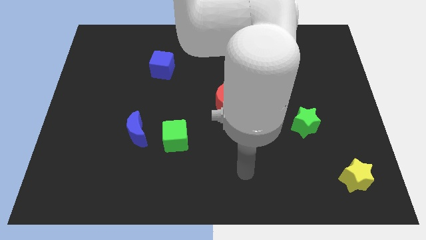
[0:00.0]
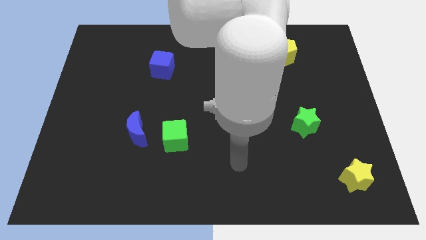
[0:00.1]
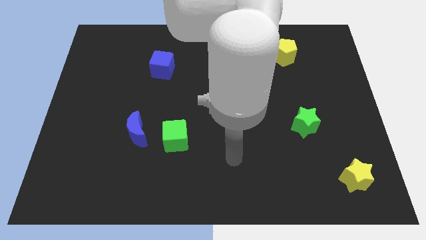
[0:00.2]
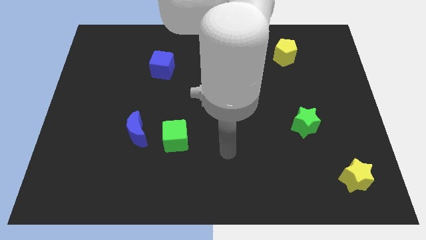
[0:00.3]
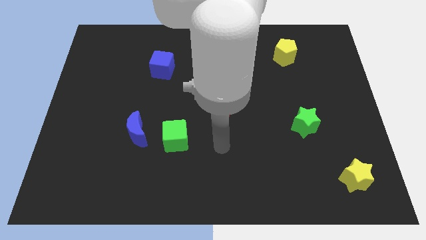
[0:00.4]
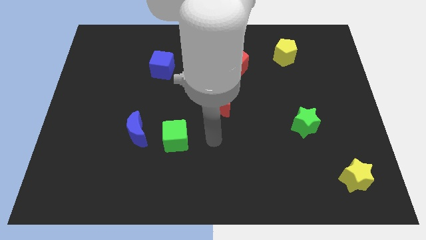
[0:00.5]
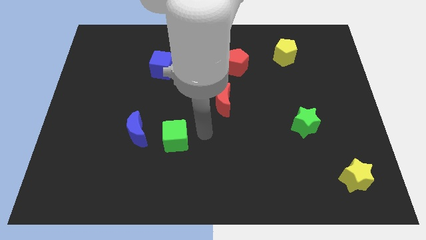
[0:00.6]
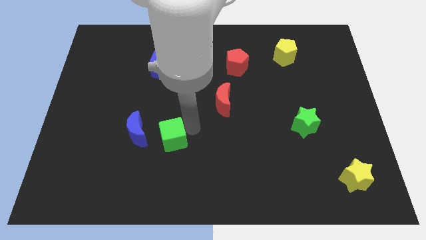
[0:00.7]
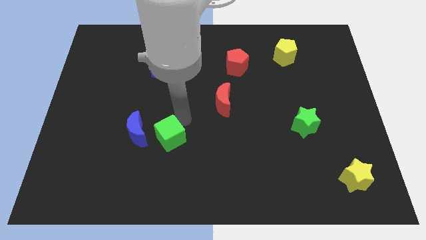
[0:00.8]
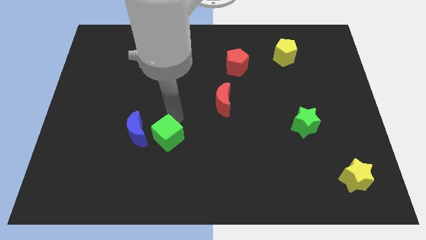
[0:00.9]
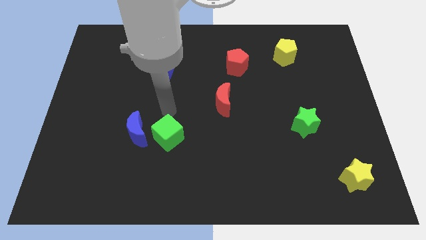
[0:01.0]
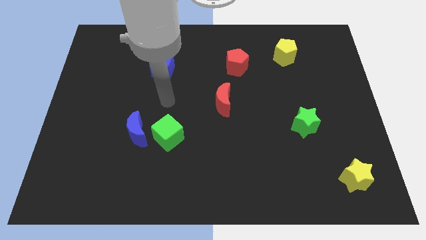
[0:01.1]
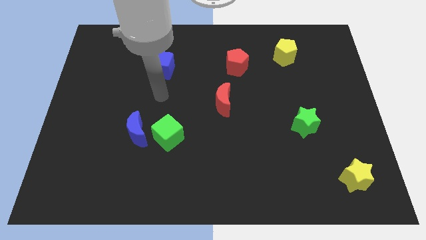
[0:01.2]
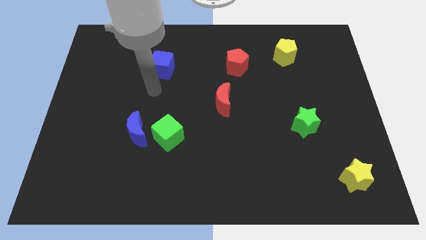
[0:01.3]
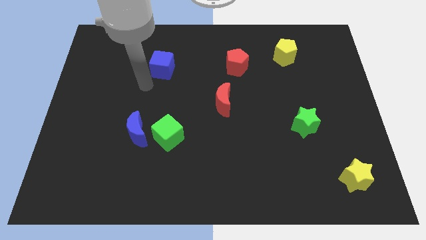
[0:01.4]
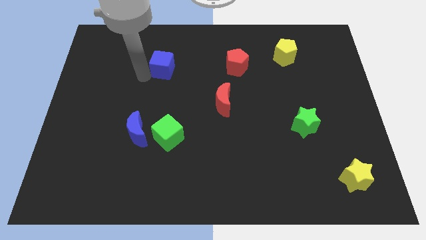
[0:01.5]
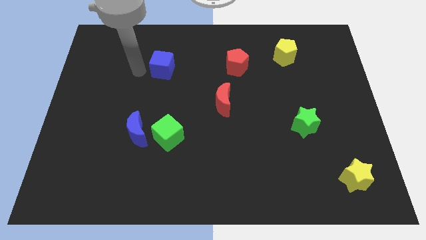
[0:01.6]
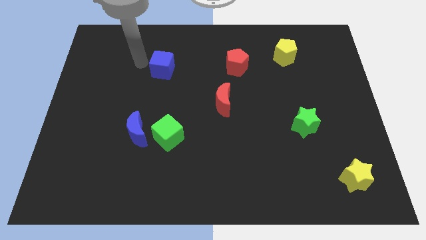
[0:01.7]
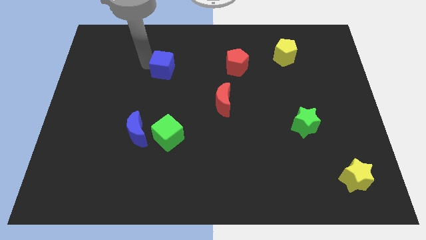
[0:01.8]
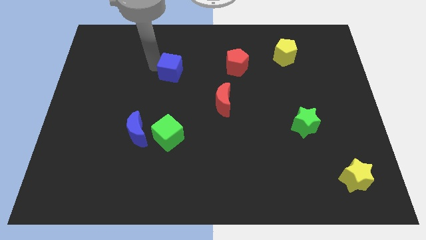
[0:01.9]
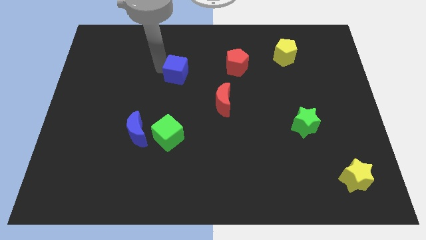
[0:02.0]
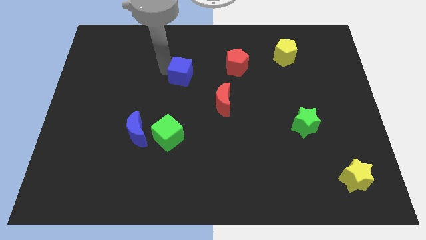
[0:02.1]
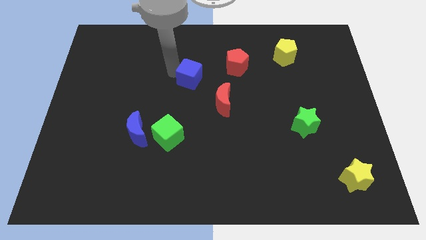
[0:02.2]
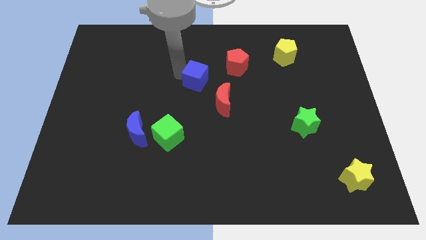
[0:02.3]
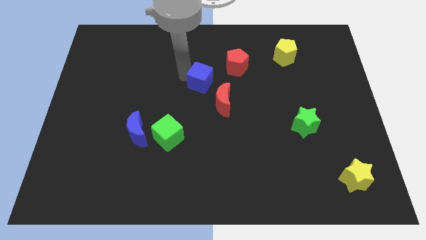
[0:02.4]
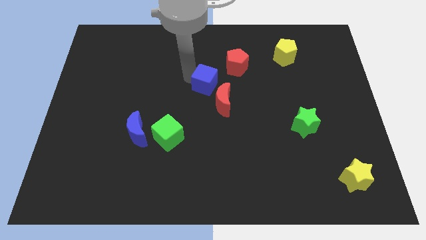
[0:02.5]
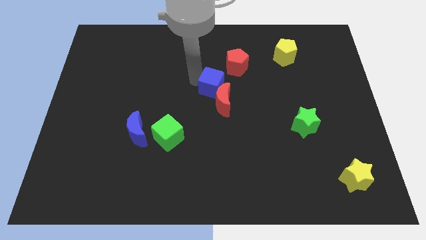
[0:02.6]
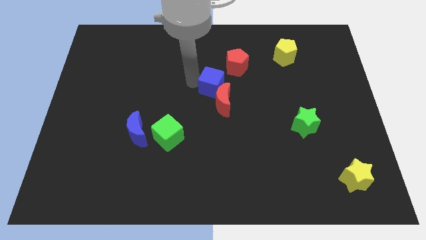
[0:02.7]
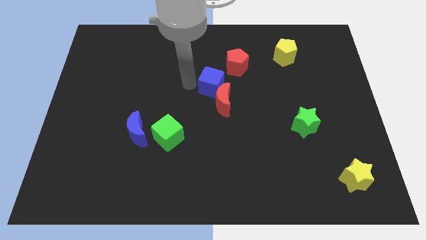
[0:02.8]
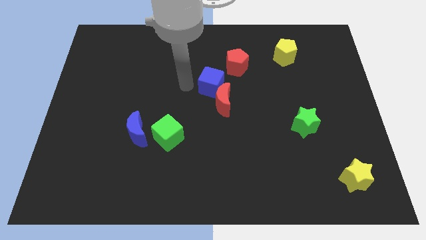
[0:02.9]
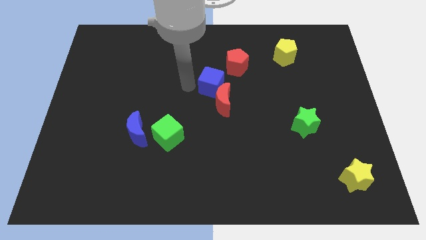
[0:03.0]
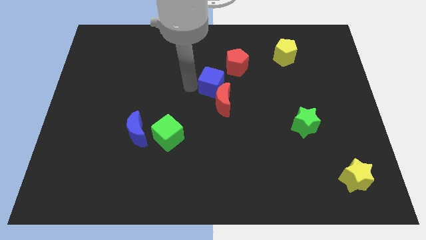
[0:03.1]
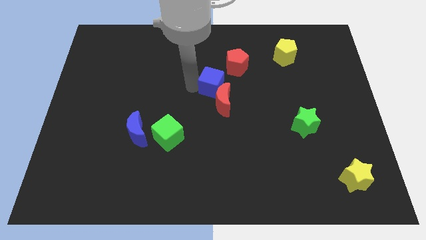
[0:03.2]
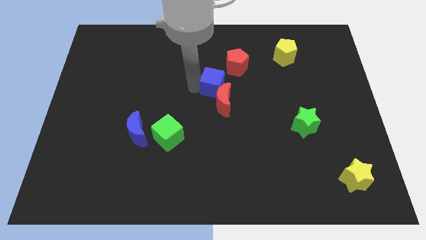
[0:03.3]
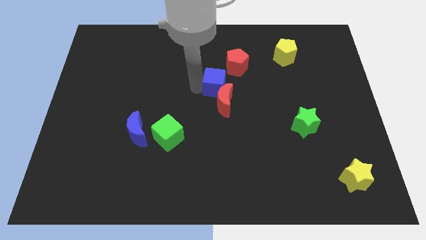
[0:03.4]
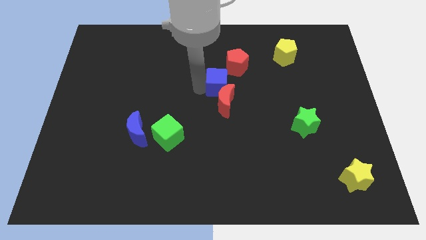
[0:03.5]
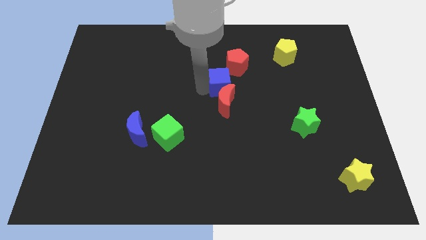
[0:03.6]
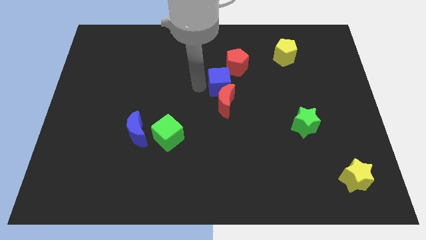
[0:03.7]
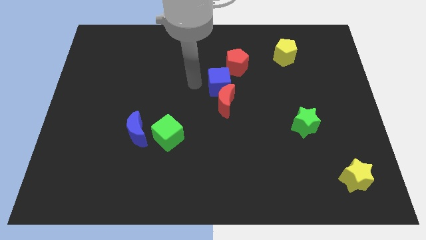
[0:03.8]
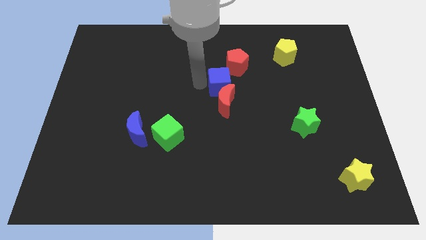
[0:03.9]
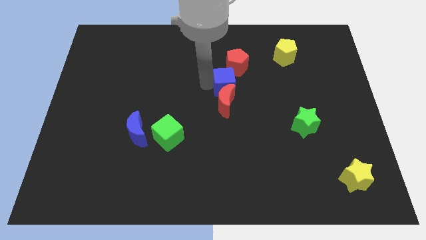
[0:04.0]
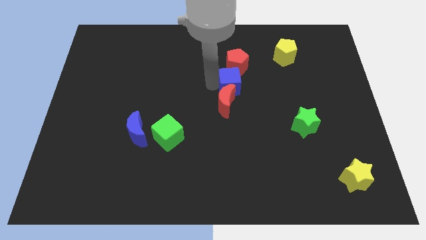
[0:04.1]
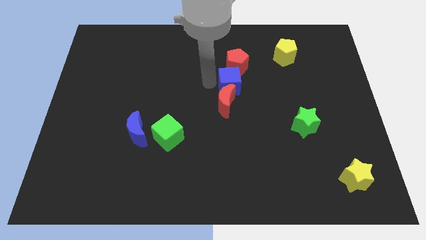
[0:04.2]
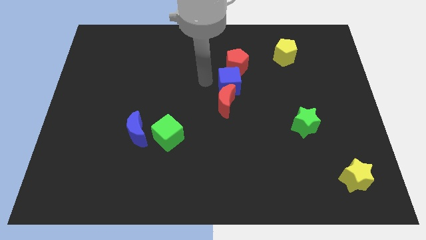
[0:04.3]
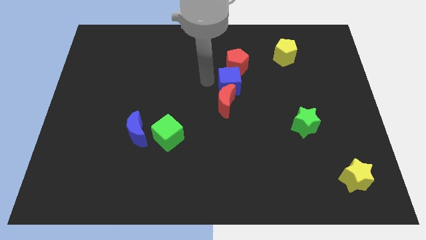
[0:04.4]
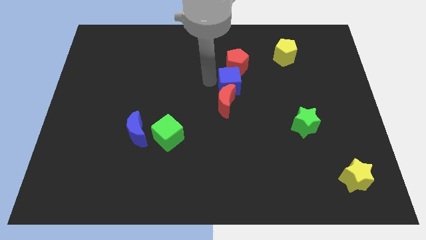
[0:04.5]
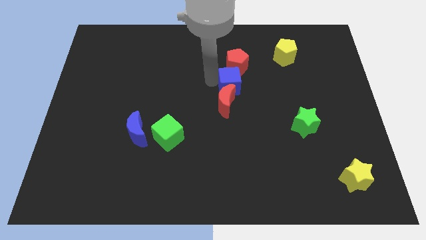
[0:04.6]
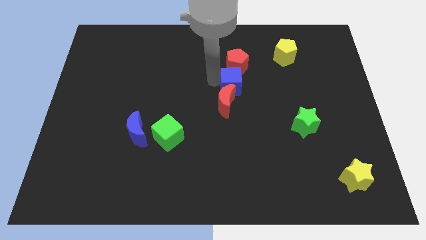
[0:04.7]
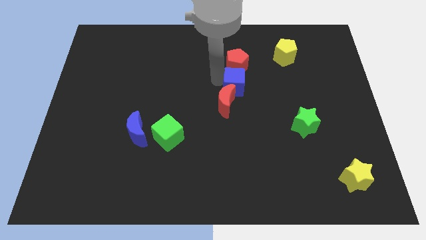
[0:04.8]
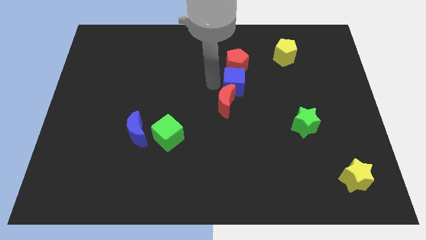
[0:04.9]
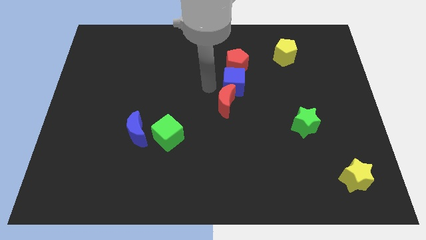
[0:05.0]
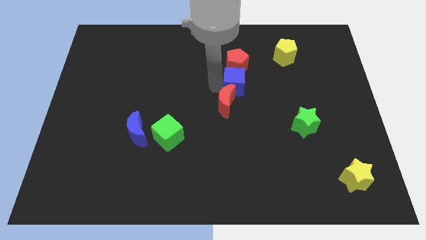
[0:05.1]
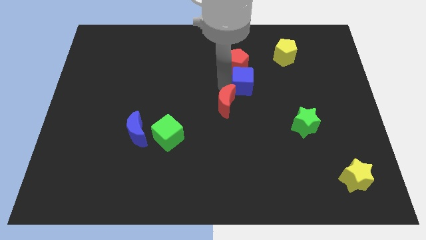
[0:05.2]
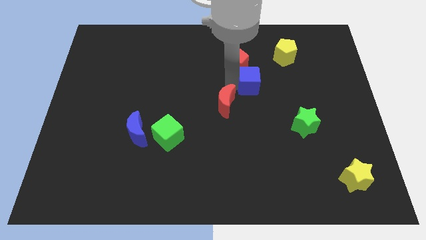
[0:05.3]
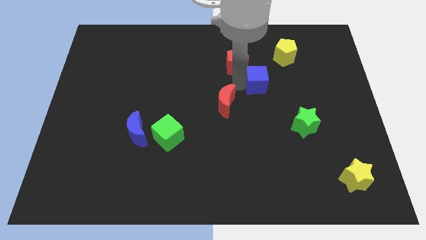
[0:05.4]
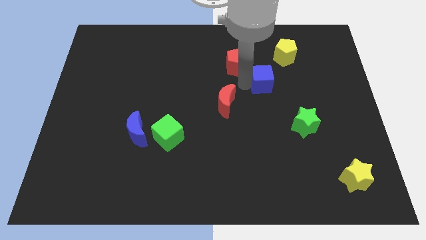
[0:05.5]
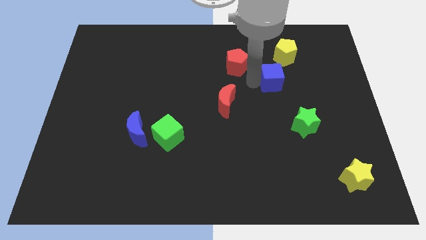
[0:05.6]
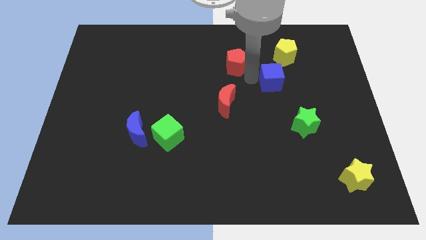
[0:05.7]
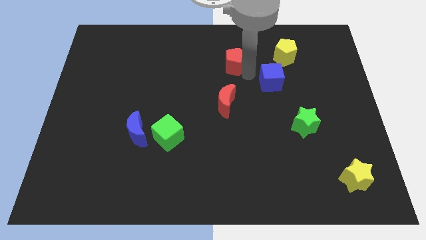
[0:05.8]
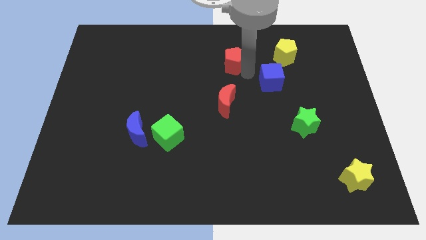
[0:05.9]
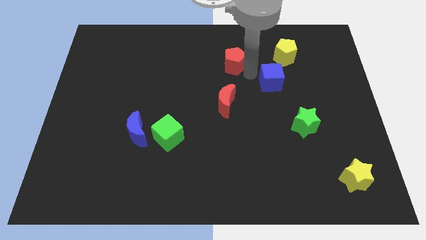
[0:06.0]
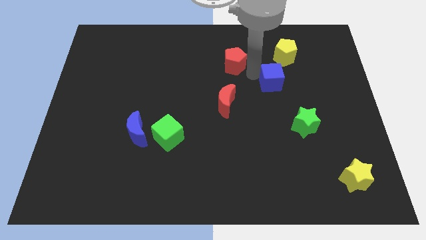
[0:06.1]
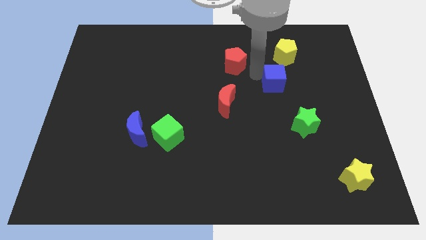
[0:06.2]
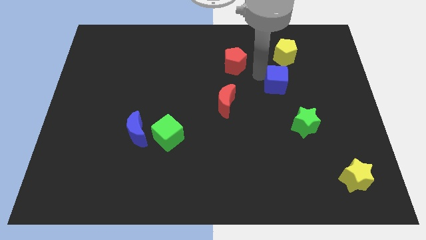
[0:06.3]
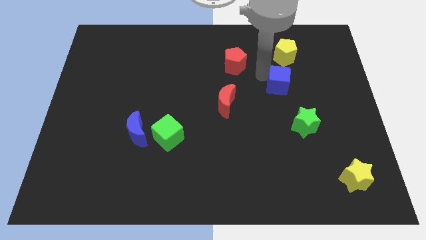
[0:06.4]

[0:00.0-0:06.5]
push the blue cube to the top side of the green star

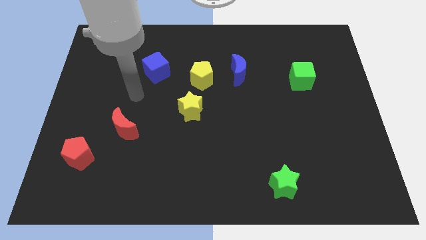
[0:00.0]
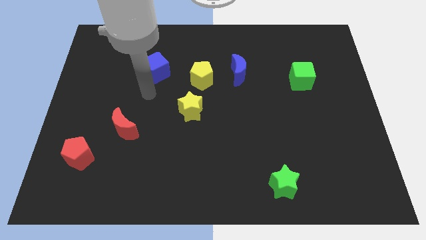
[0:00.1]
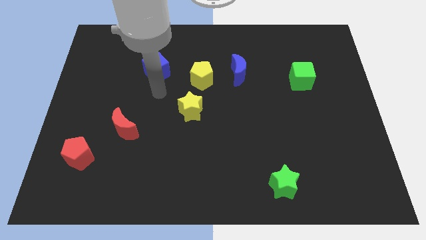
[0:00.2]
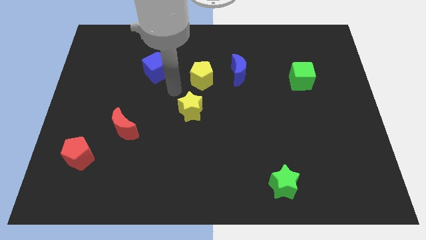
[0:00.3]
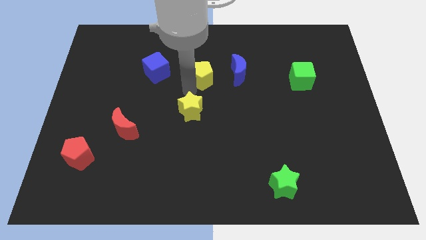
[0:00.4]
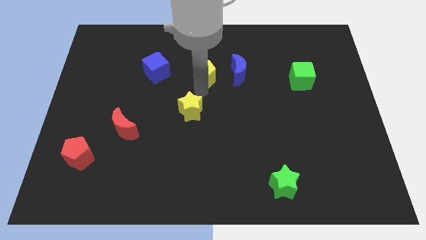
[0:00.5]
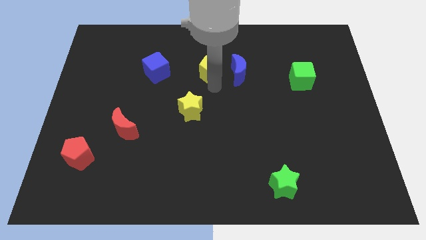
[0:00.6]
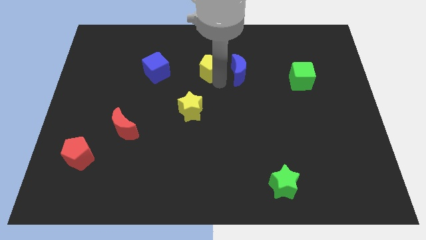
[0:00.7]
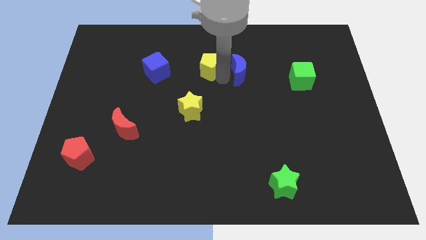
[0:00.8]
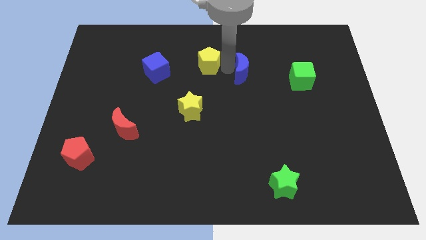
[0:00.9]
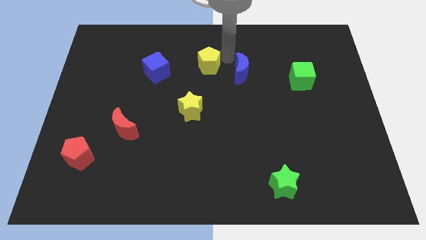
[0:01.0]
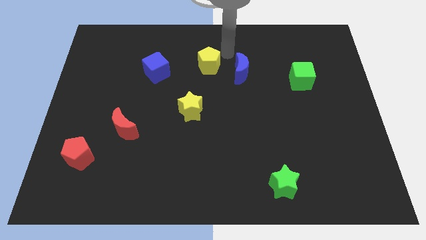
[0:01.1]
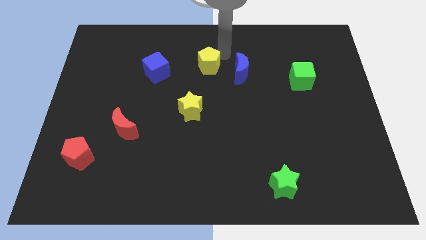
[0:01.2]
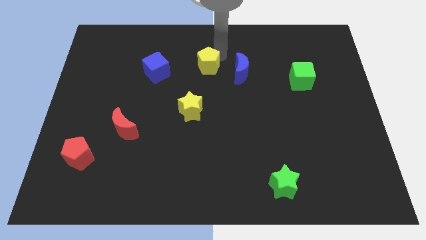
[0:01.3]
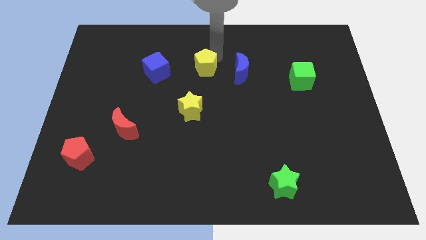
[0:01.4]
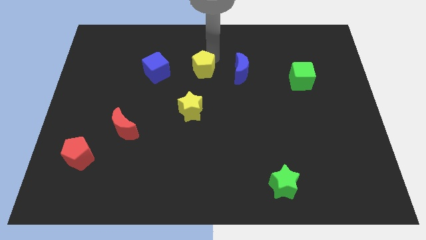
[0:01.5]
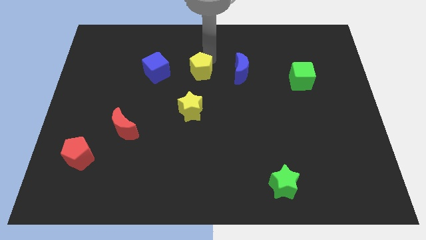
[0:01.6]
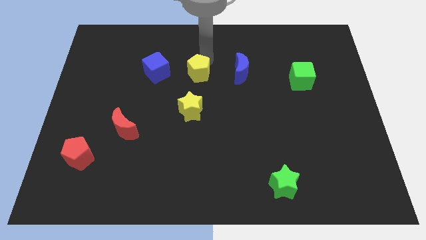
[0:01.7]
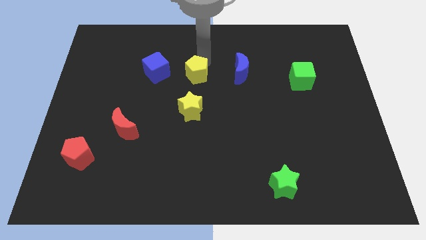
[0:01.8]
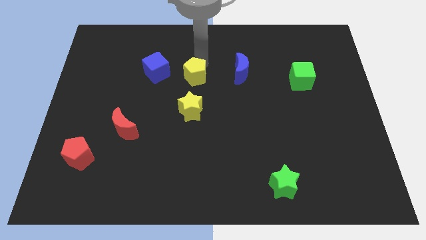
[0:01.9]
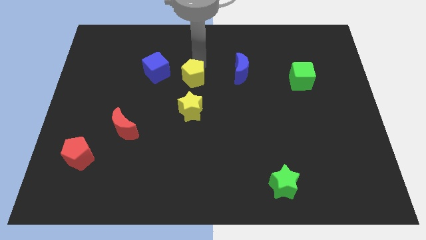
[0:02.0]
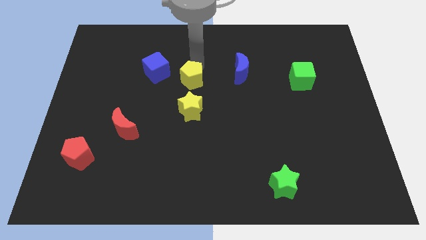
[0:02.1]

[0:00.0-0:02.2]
slide the yellow pentagon to the bottom right side of the blue cube
